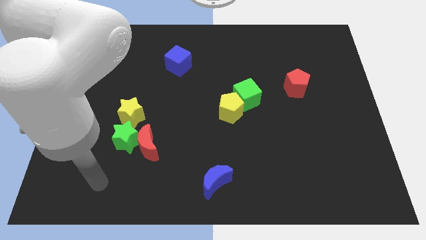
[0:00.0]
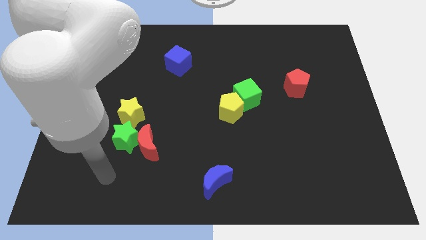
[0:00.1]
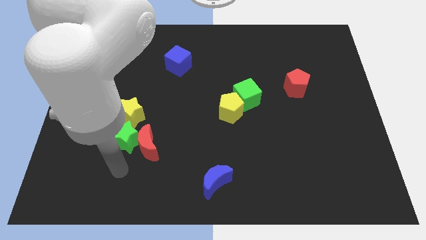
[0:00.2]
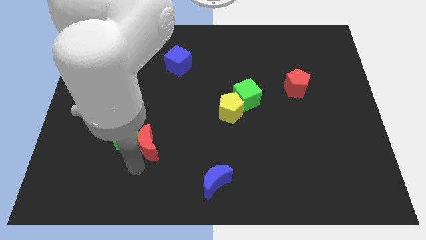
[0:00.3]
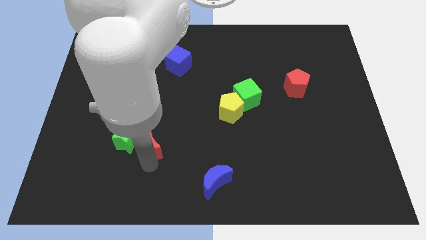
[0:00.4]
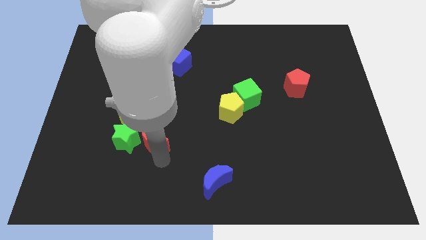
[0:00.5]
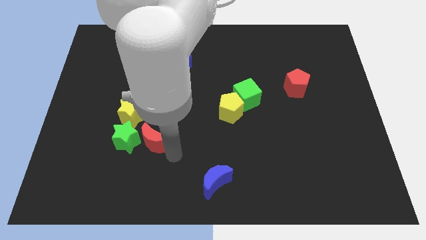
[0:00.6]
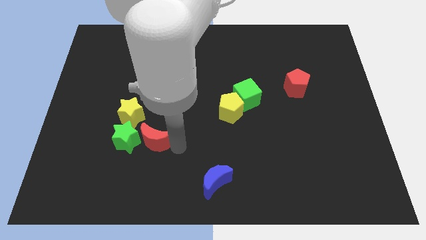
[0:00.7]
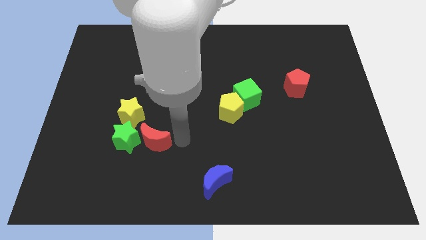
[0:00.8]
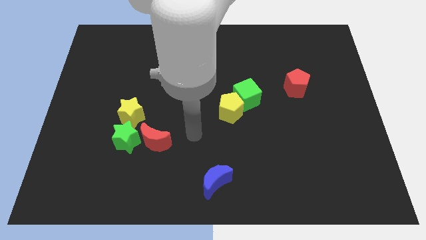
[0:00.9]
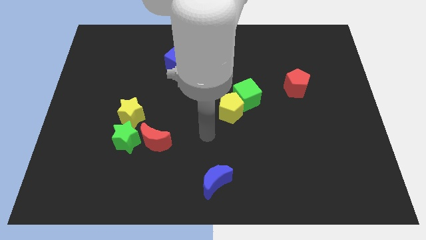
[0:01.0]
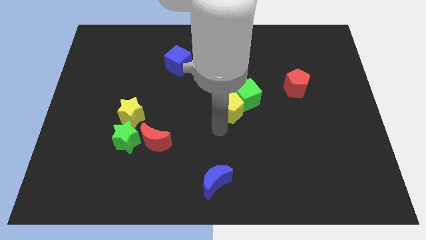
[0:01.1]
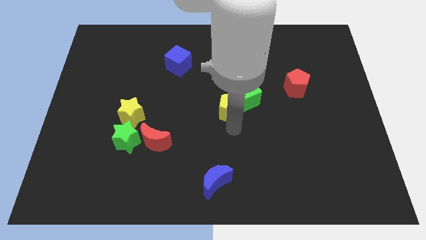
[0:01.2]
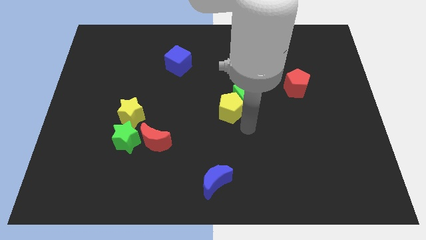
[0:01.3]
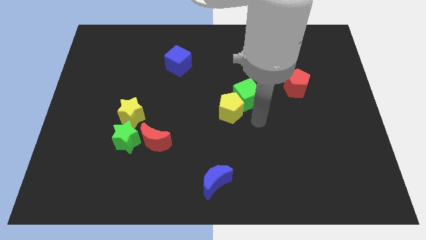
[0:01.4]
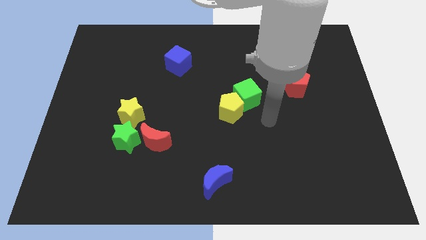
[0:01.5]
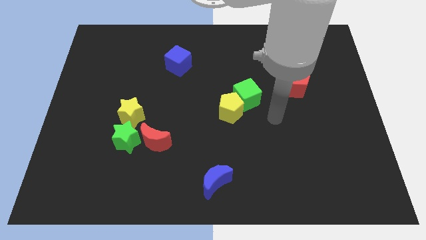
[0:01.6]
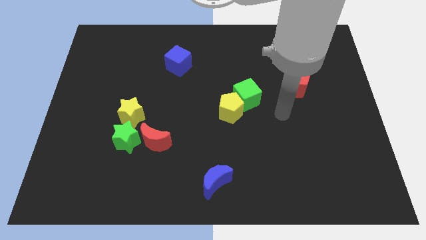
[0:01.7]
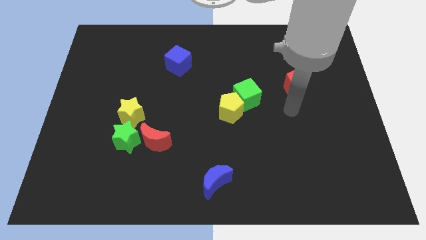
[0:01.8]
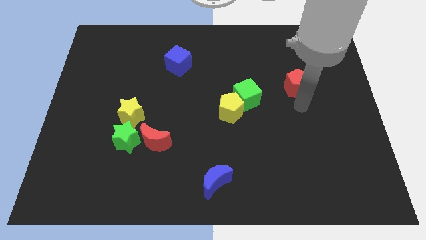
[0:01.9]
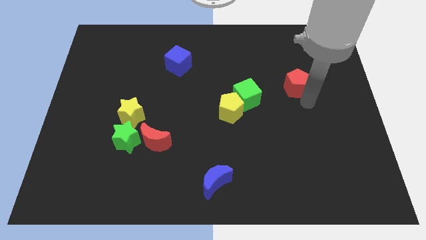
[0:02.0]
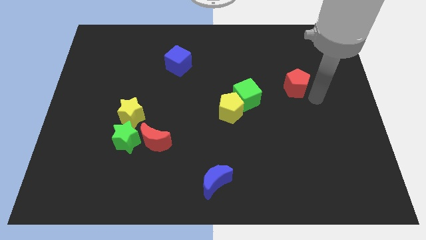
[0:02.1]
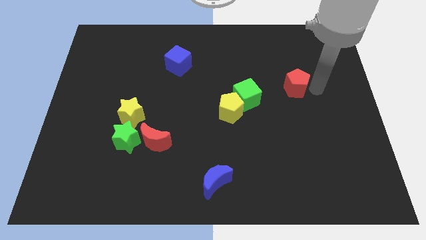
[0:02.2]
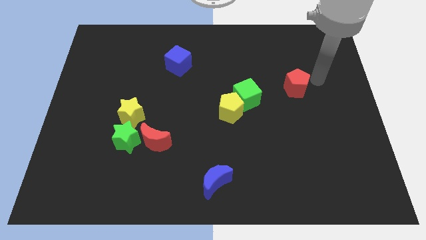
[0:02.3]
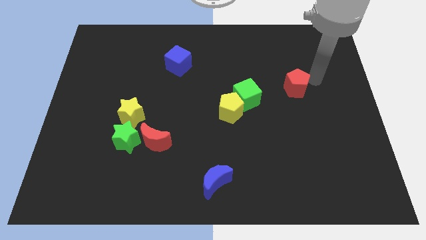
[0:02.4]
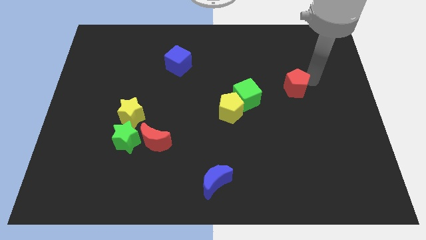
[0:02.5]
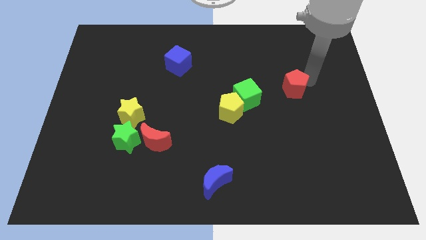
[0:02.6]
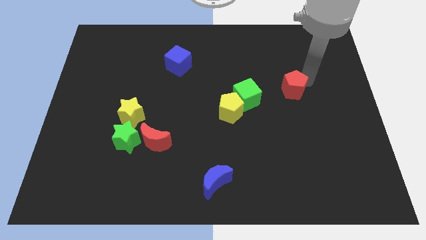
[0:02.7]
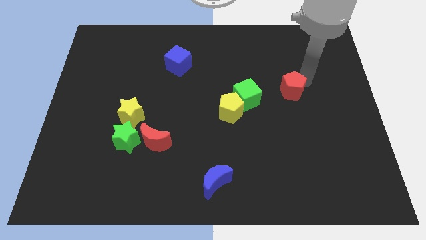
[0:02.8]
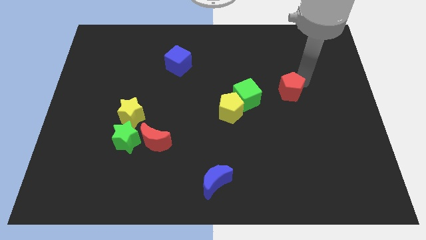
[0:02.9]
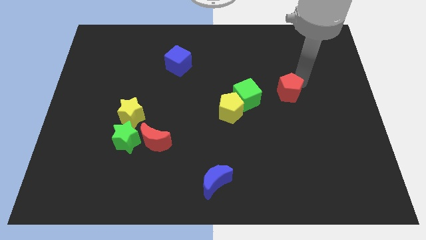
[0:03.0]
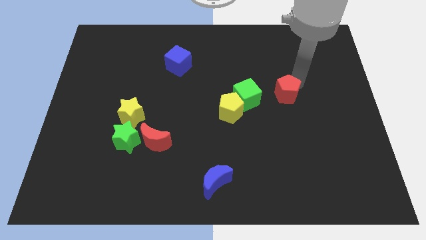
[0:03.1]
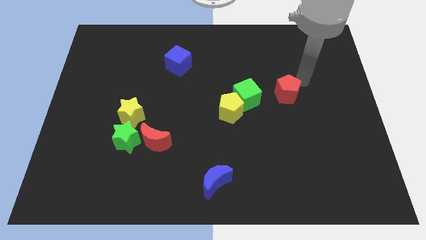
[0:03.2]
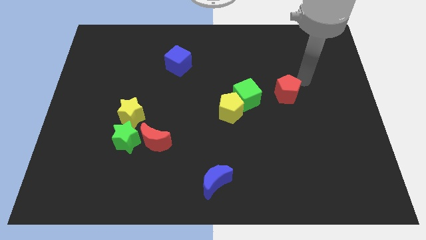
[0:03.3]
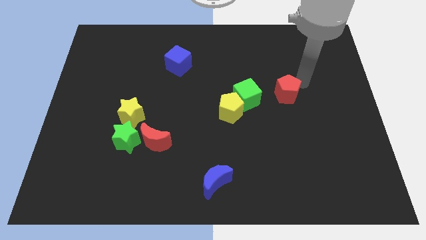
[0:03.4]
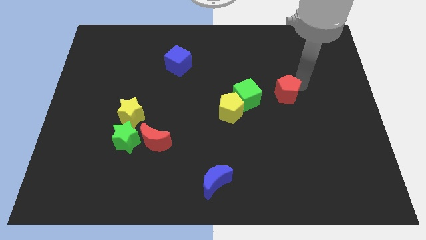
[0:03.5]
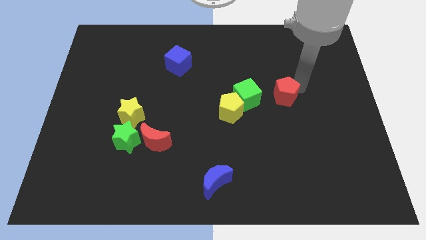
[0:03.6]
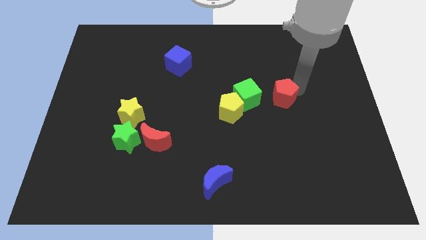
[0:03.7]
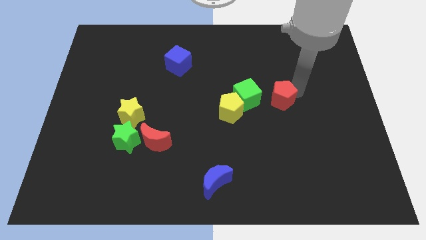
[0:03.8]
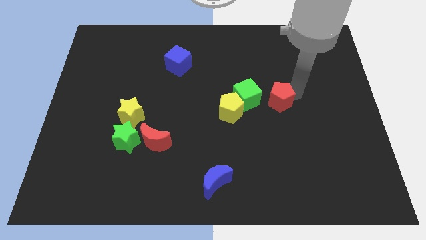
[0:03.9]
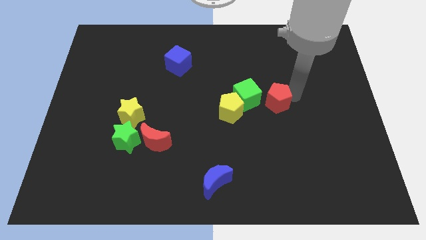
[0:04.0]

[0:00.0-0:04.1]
move the red pentagon downwards and left diagonally a bit

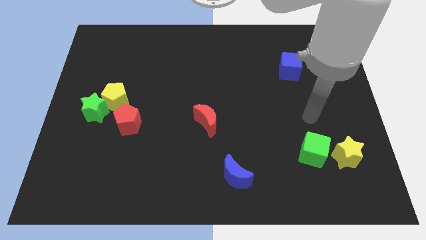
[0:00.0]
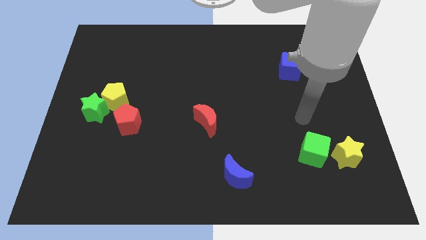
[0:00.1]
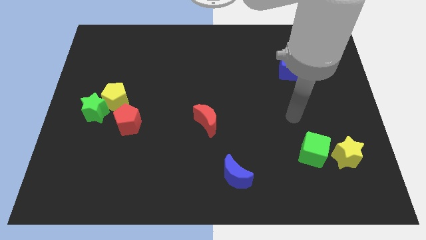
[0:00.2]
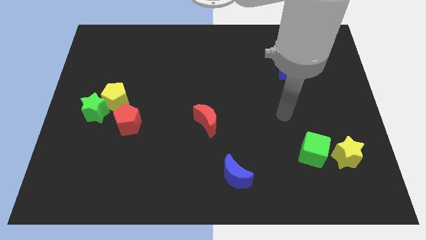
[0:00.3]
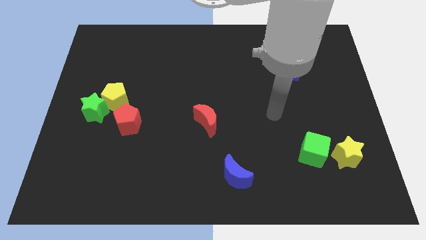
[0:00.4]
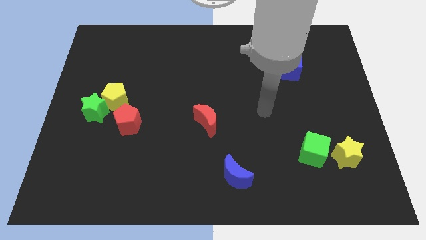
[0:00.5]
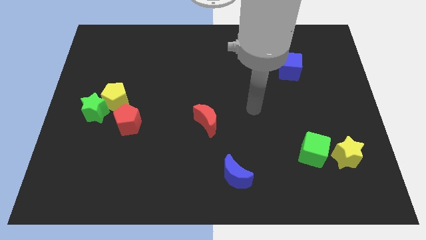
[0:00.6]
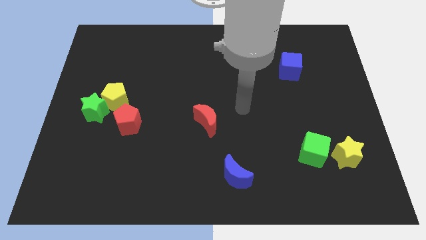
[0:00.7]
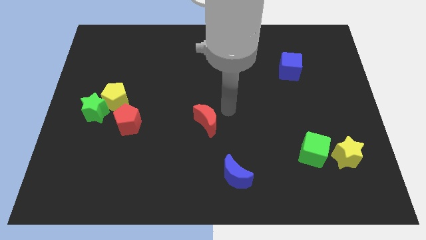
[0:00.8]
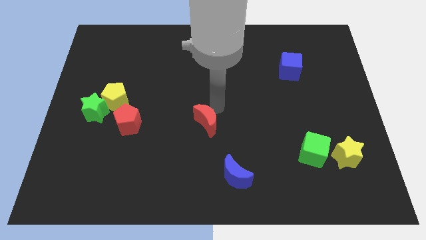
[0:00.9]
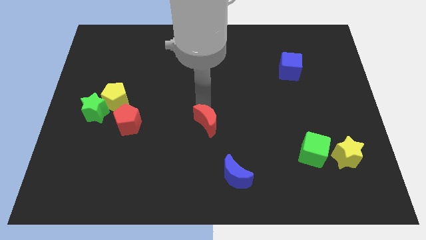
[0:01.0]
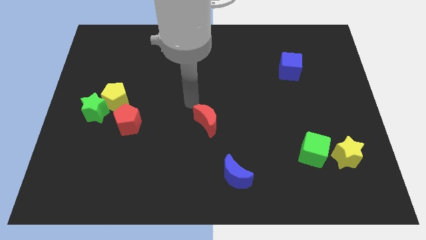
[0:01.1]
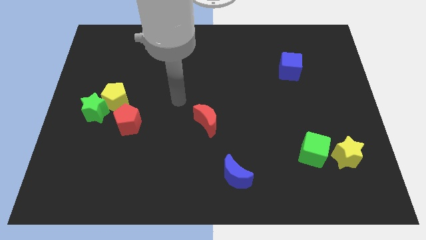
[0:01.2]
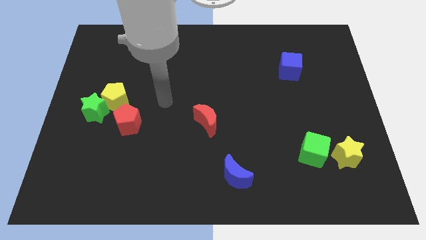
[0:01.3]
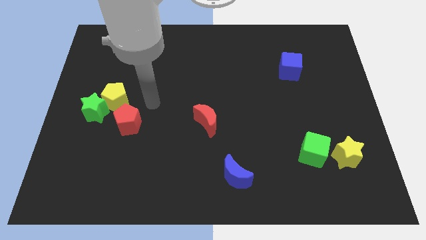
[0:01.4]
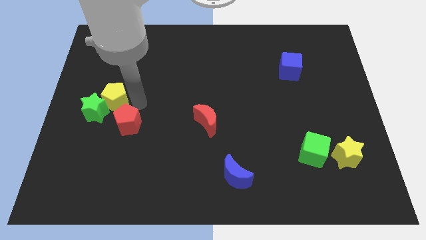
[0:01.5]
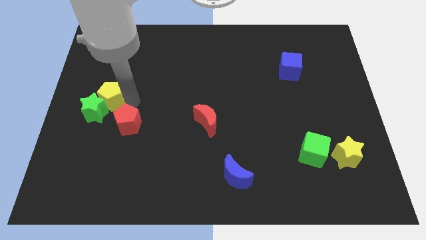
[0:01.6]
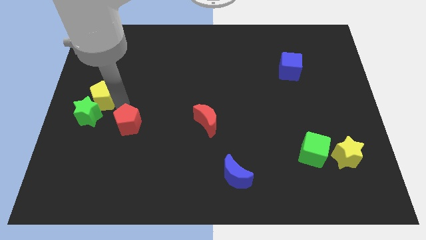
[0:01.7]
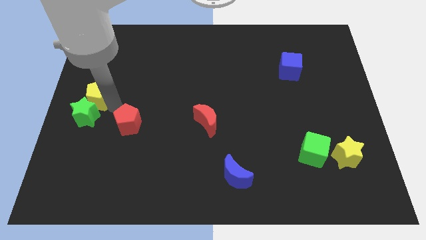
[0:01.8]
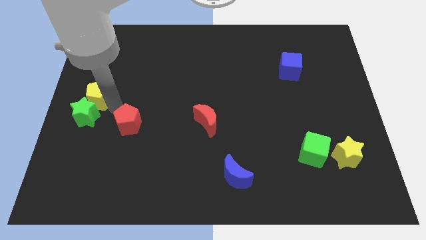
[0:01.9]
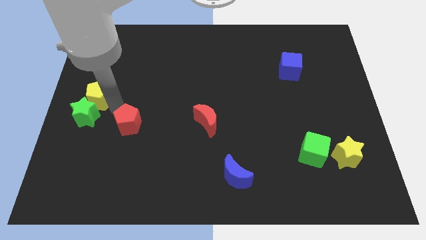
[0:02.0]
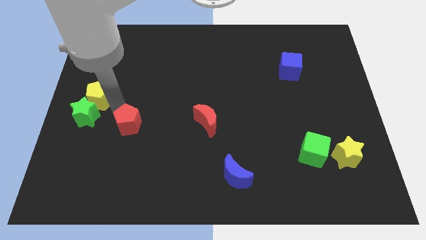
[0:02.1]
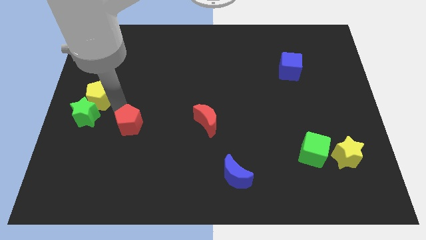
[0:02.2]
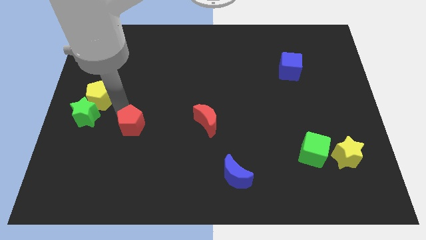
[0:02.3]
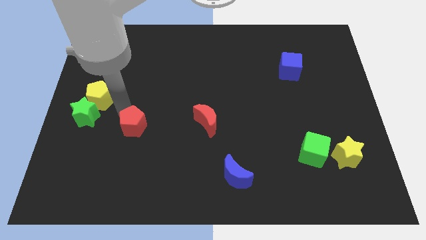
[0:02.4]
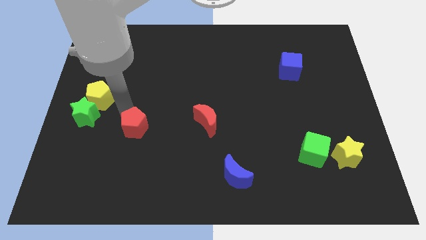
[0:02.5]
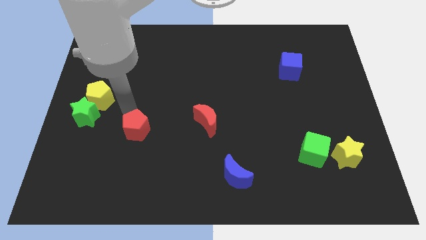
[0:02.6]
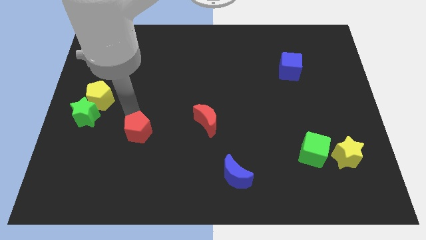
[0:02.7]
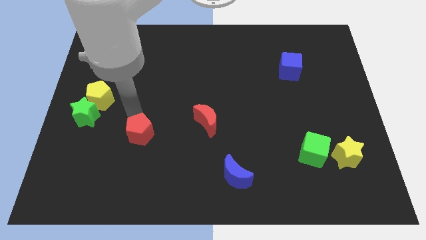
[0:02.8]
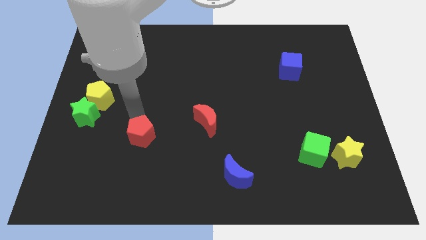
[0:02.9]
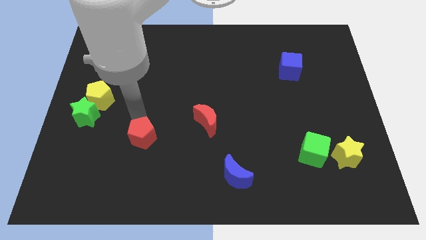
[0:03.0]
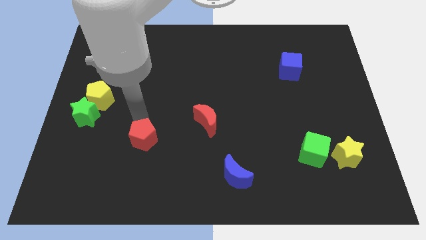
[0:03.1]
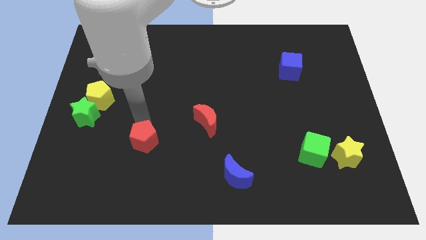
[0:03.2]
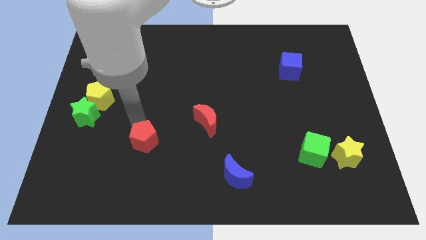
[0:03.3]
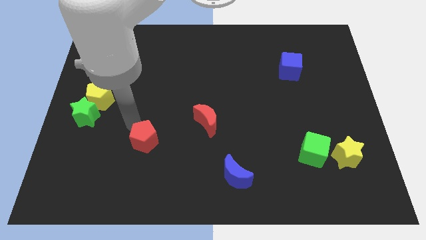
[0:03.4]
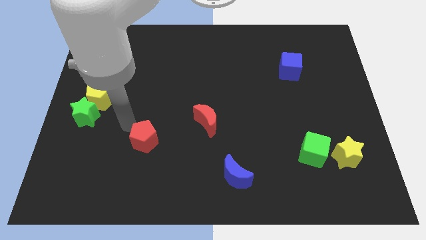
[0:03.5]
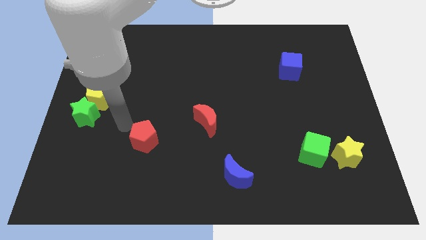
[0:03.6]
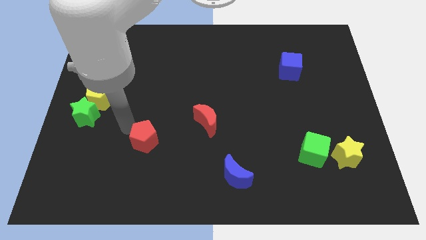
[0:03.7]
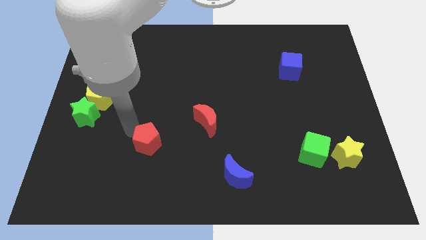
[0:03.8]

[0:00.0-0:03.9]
move the red pentagon down and then to the right slightly
